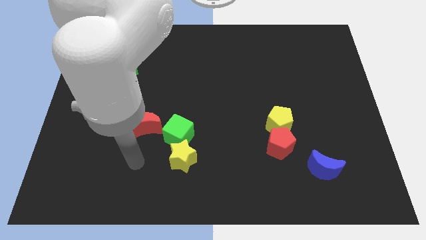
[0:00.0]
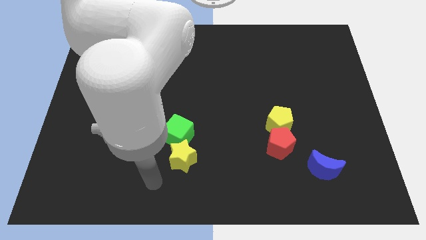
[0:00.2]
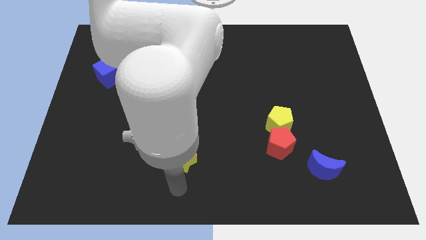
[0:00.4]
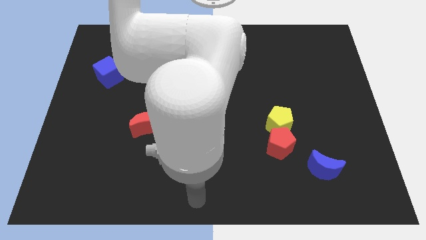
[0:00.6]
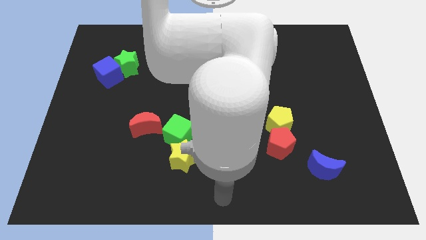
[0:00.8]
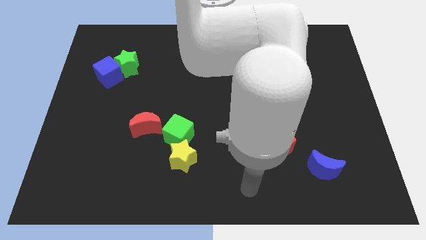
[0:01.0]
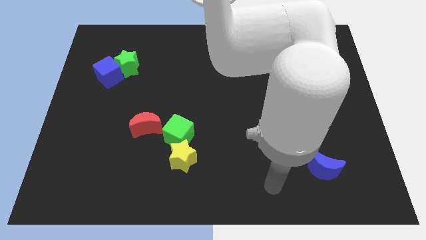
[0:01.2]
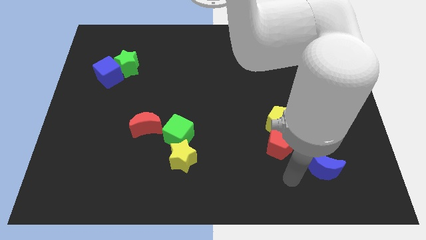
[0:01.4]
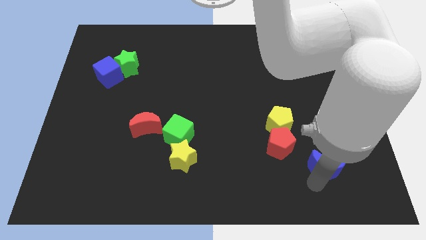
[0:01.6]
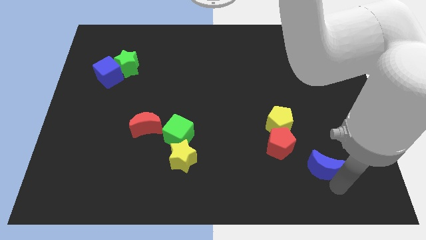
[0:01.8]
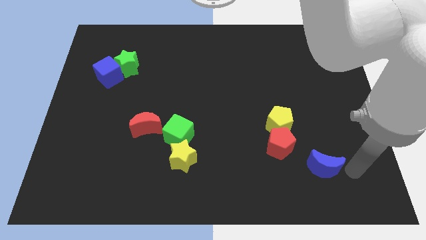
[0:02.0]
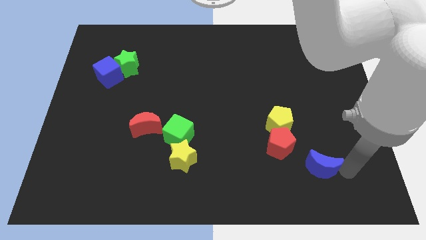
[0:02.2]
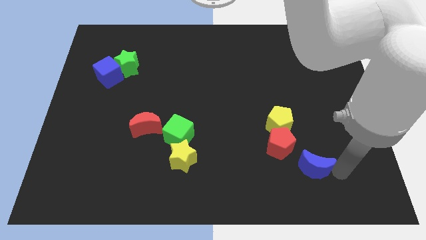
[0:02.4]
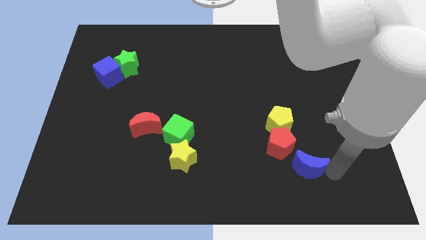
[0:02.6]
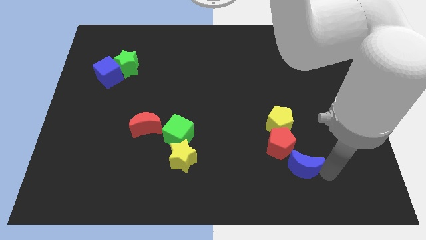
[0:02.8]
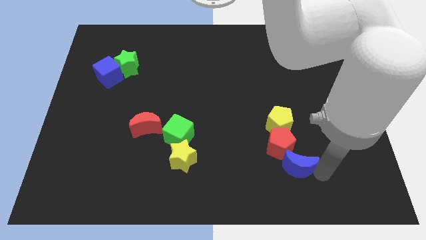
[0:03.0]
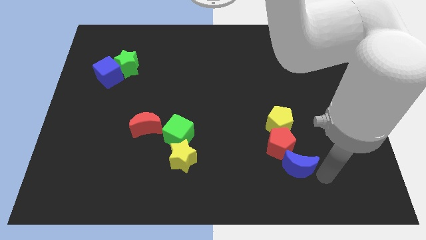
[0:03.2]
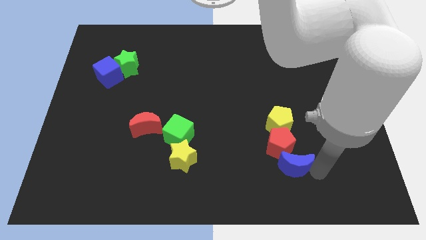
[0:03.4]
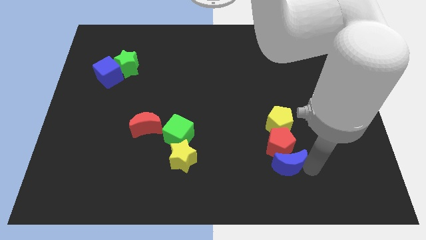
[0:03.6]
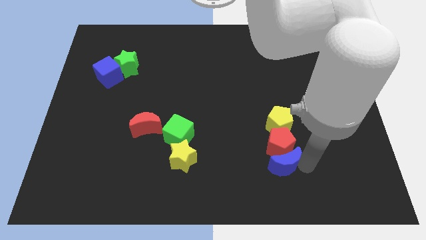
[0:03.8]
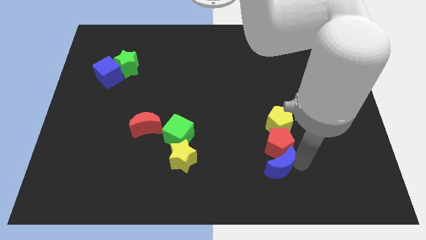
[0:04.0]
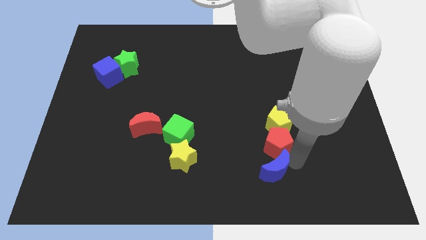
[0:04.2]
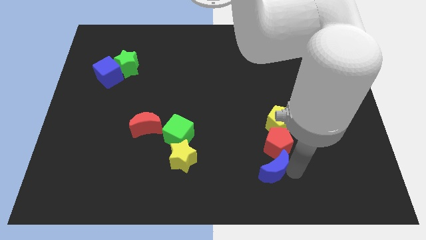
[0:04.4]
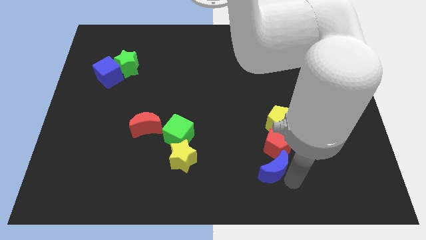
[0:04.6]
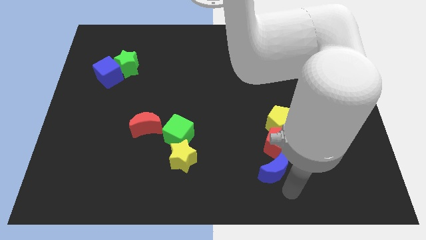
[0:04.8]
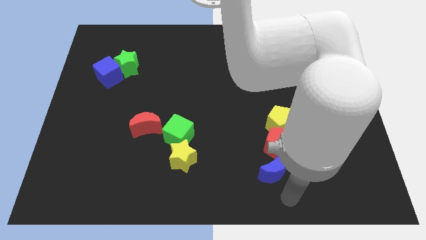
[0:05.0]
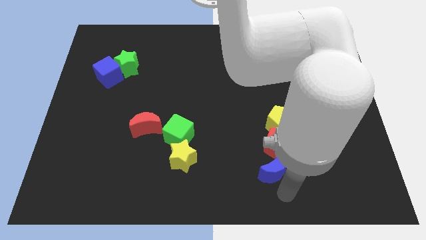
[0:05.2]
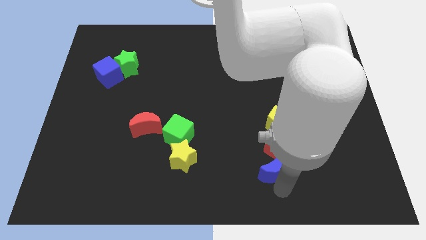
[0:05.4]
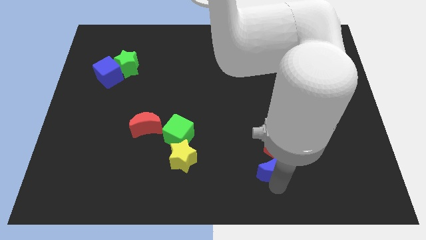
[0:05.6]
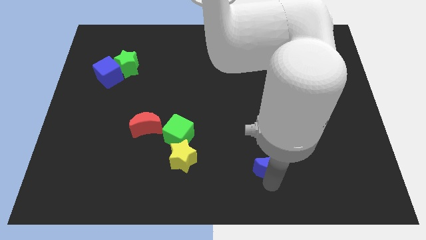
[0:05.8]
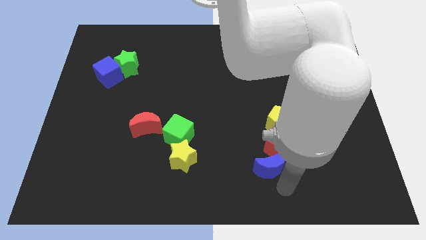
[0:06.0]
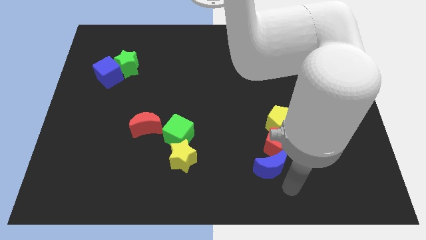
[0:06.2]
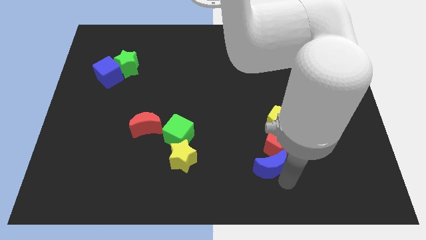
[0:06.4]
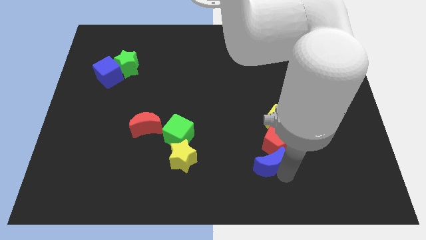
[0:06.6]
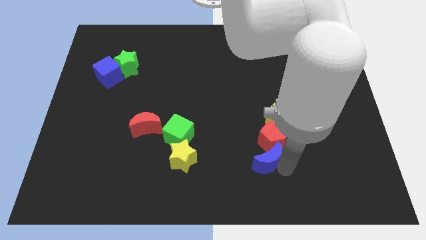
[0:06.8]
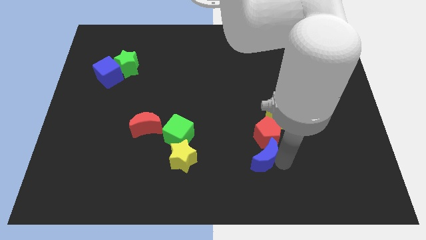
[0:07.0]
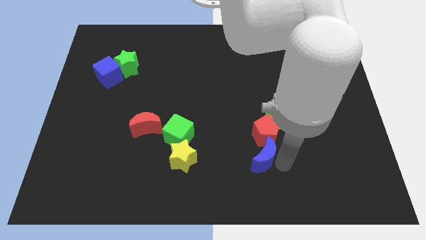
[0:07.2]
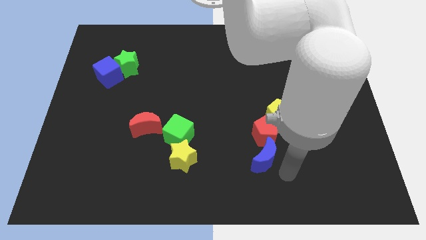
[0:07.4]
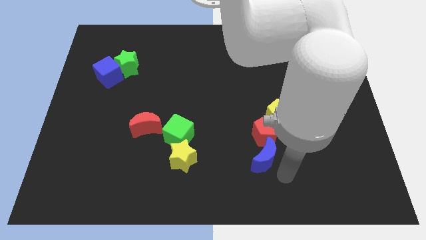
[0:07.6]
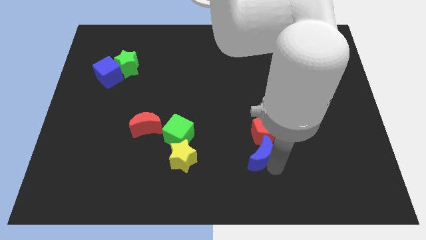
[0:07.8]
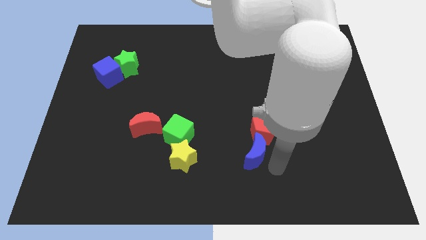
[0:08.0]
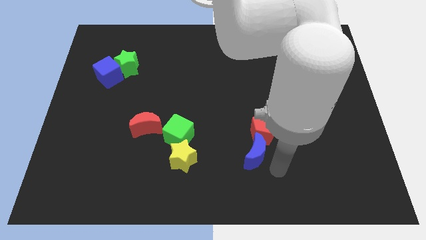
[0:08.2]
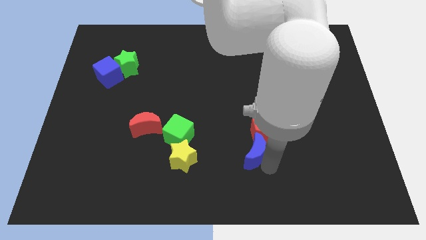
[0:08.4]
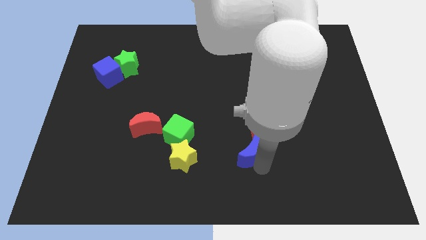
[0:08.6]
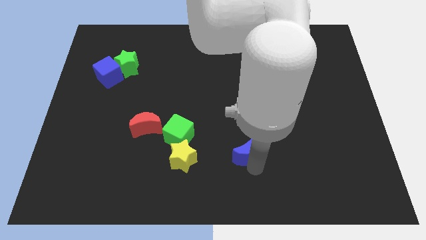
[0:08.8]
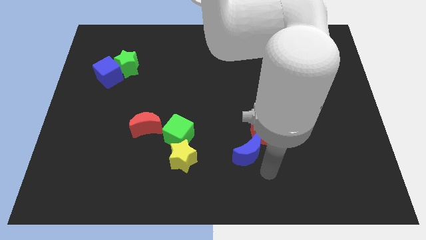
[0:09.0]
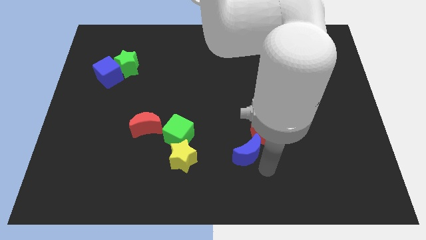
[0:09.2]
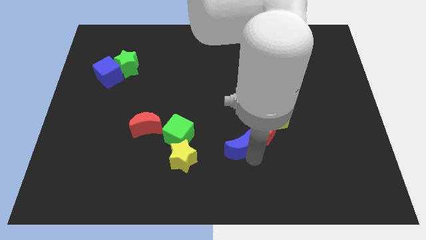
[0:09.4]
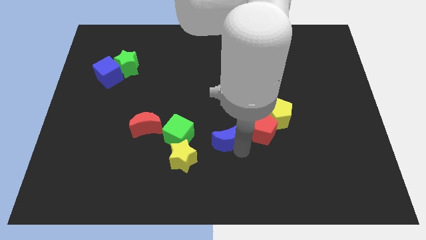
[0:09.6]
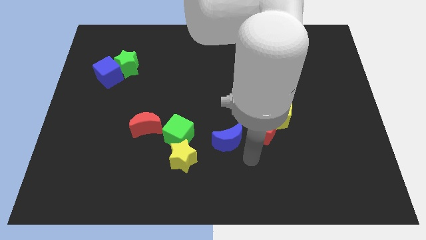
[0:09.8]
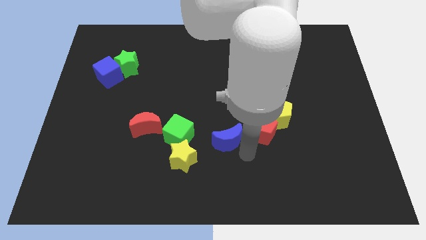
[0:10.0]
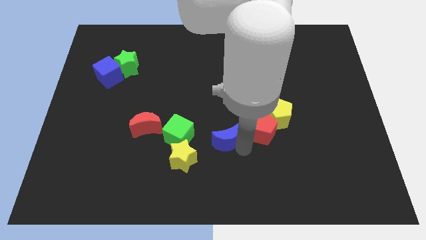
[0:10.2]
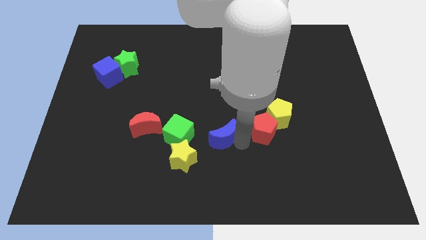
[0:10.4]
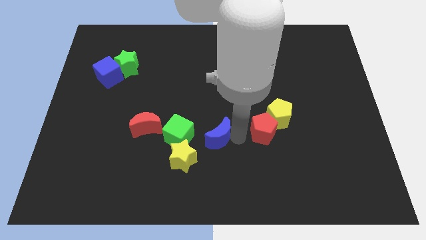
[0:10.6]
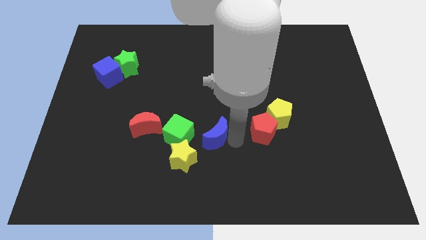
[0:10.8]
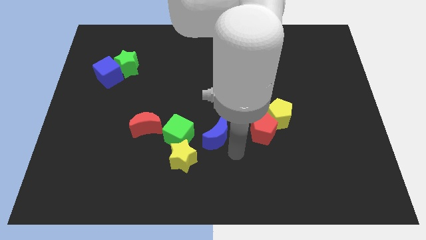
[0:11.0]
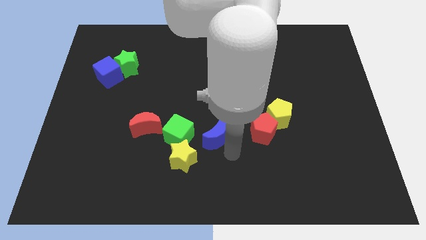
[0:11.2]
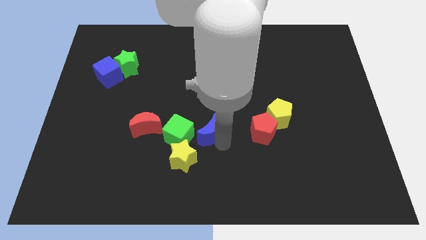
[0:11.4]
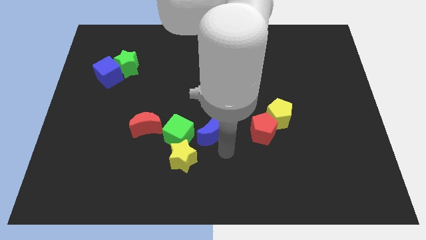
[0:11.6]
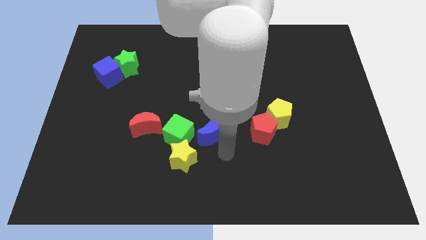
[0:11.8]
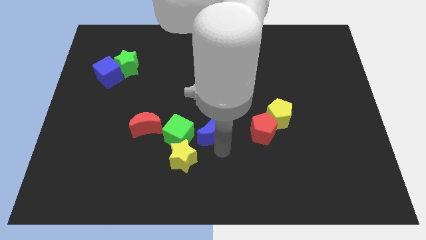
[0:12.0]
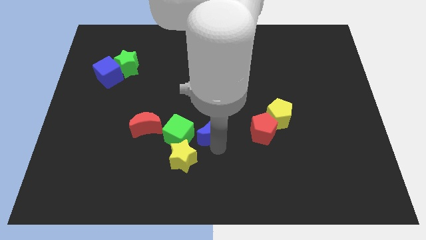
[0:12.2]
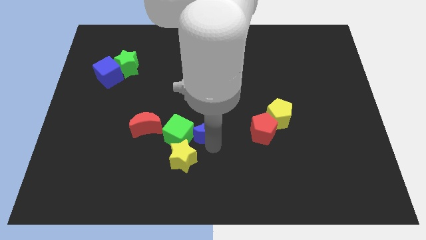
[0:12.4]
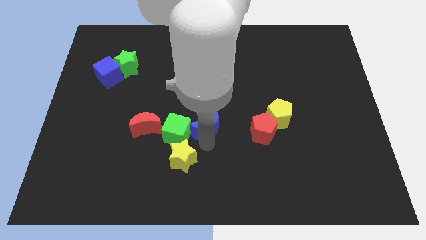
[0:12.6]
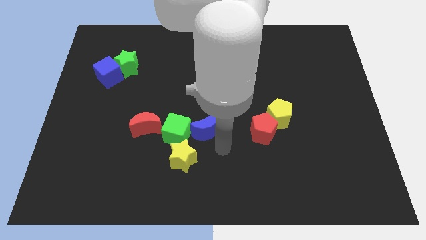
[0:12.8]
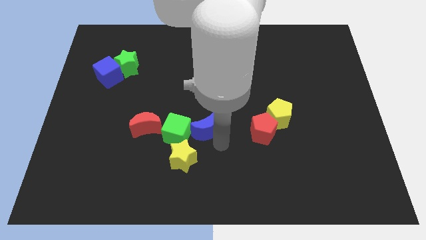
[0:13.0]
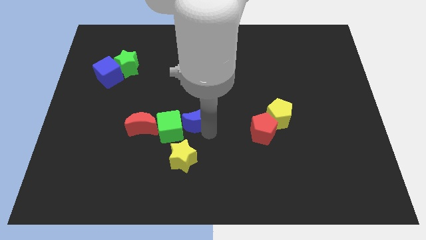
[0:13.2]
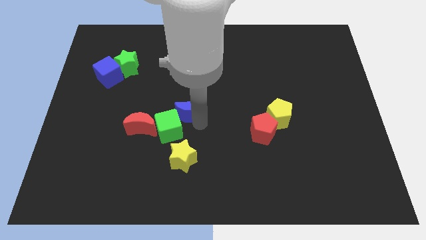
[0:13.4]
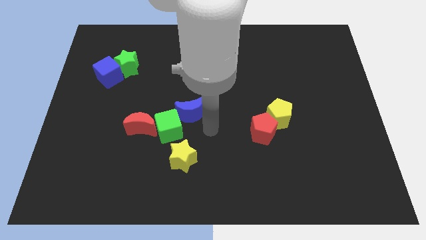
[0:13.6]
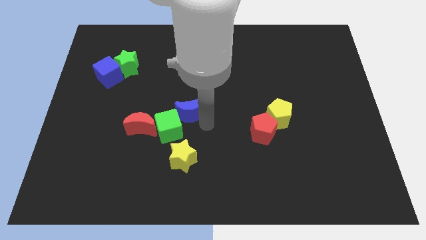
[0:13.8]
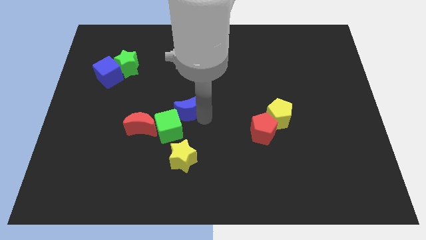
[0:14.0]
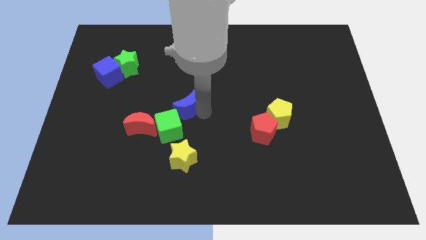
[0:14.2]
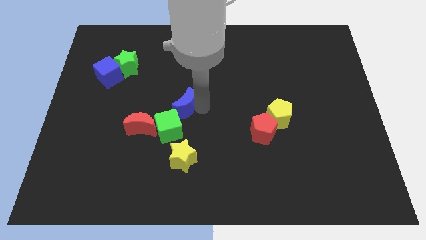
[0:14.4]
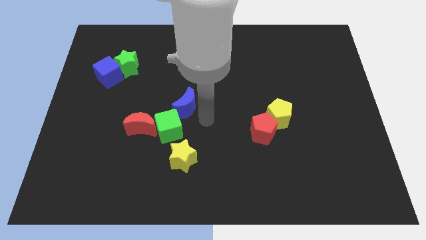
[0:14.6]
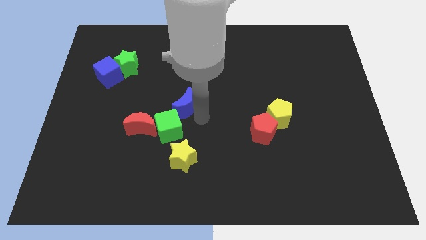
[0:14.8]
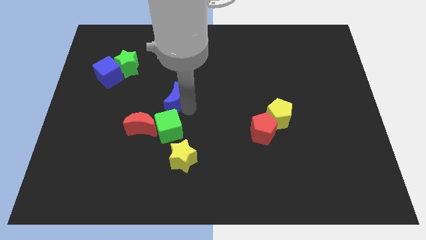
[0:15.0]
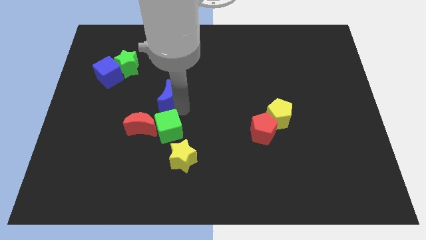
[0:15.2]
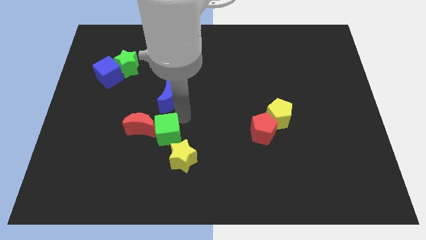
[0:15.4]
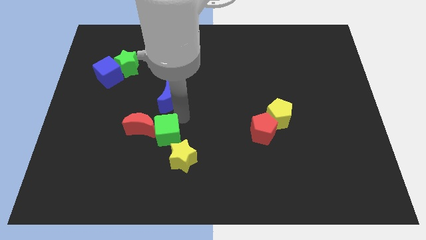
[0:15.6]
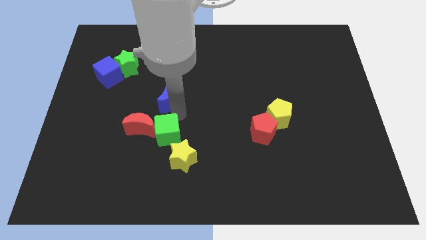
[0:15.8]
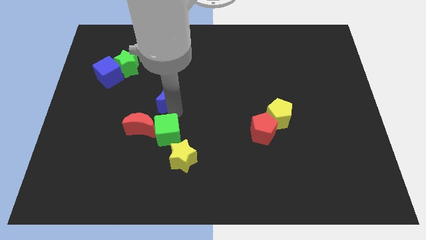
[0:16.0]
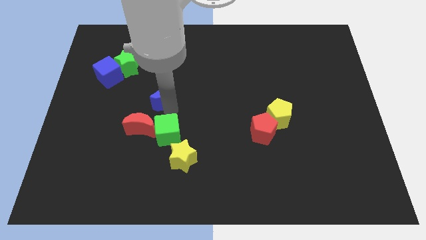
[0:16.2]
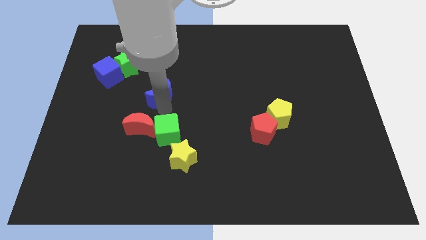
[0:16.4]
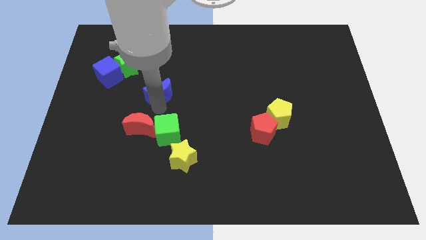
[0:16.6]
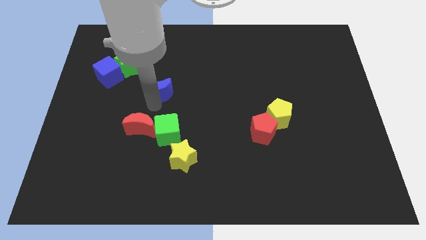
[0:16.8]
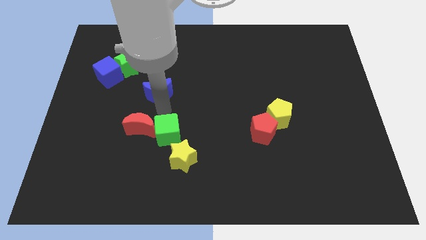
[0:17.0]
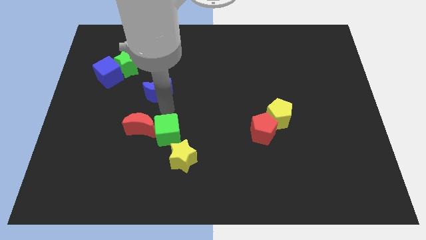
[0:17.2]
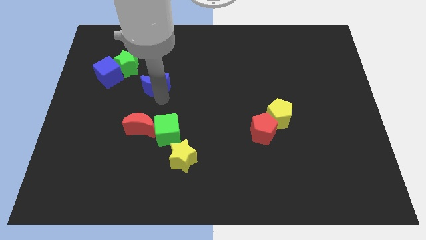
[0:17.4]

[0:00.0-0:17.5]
slide the blue moon to the right of the blue cube

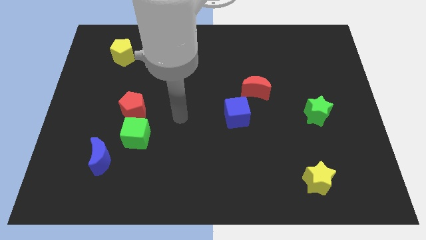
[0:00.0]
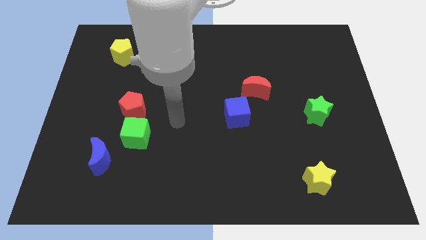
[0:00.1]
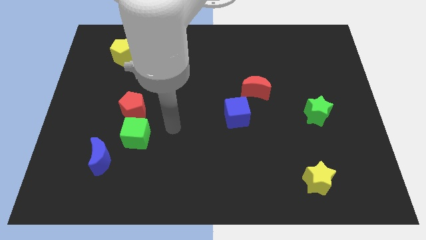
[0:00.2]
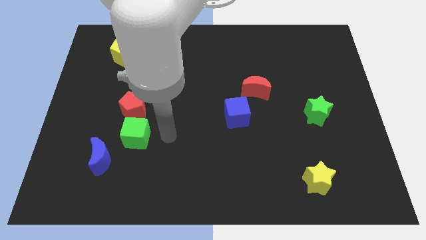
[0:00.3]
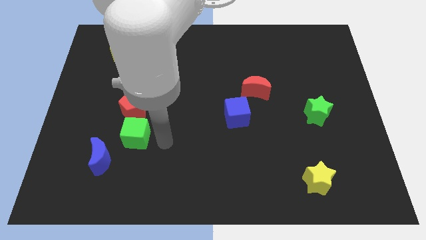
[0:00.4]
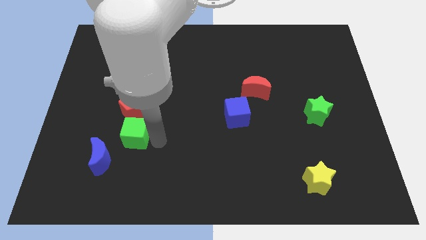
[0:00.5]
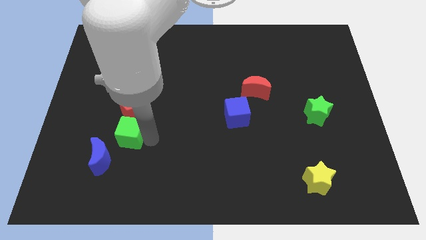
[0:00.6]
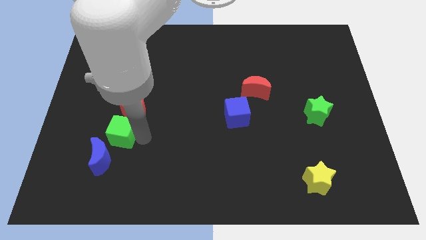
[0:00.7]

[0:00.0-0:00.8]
push the green cube to the bottom left of the red pentagon
